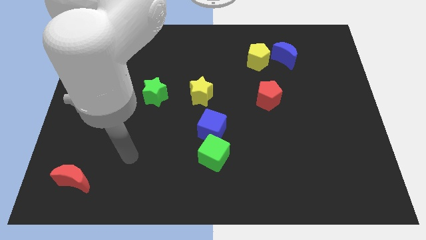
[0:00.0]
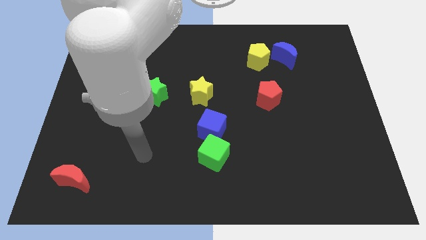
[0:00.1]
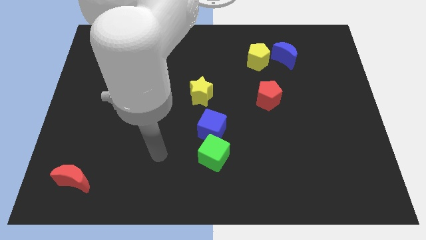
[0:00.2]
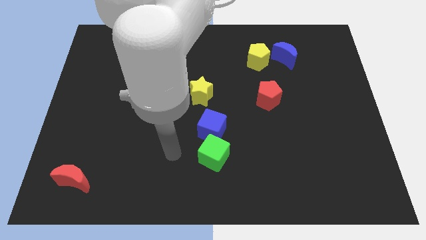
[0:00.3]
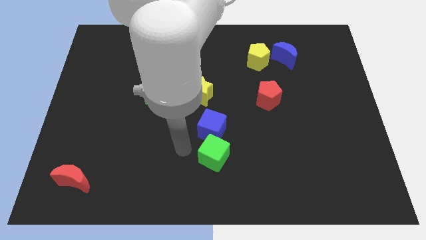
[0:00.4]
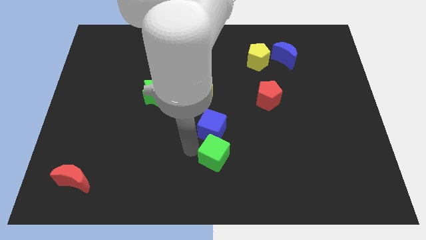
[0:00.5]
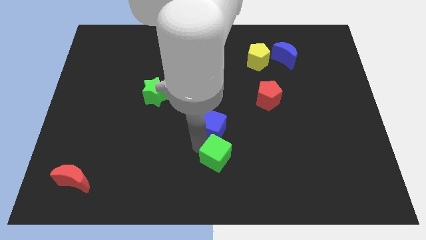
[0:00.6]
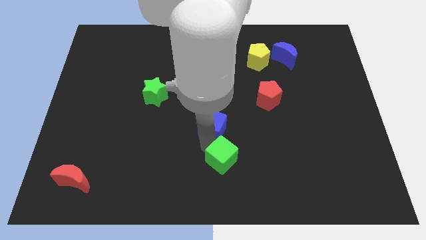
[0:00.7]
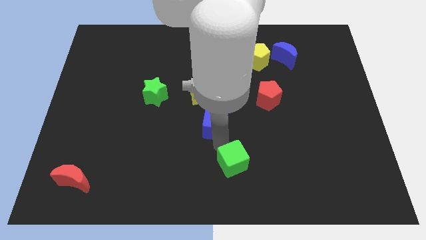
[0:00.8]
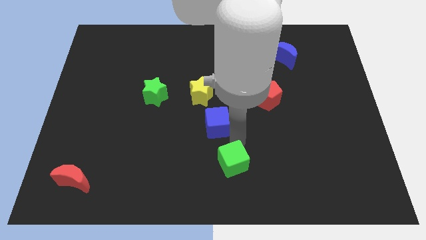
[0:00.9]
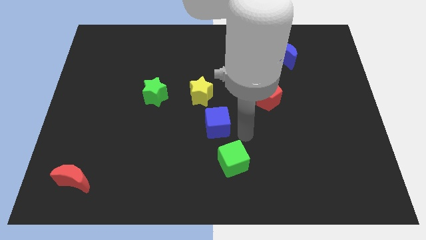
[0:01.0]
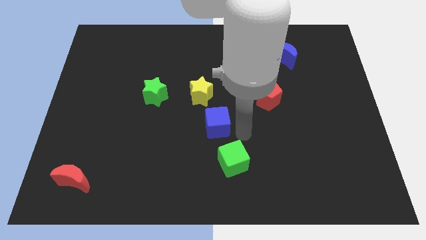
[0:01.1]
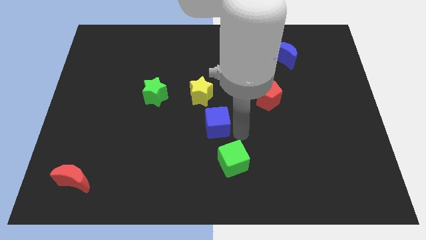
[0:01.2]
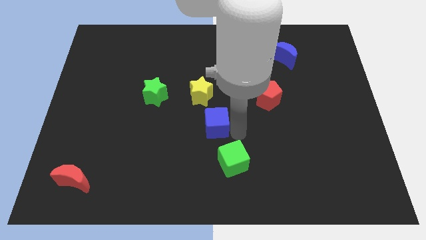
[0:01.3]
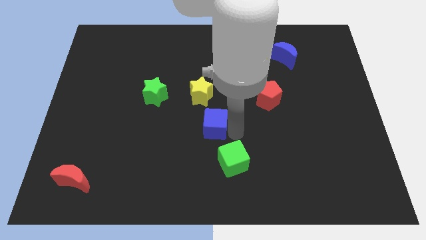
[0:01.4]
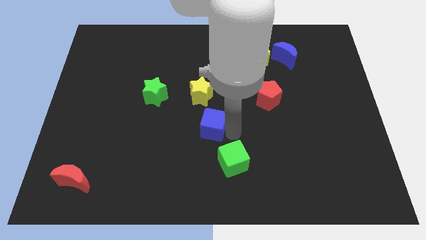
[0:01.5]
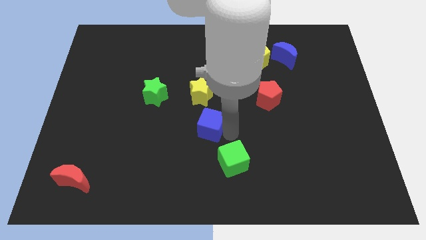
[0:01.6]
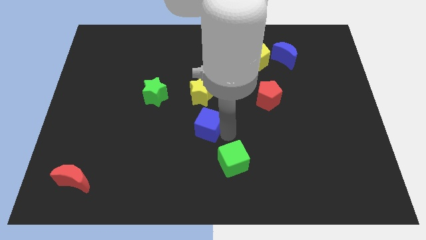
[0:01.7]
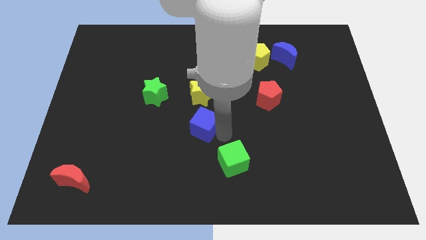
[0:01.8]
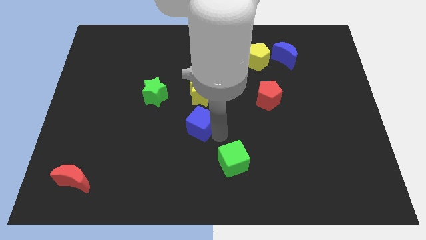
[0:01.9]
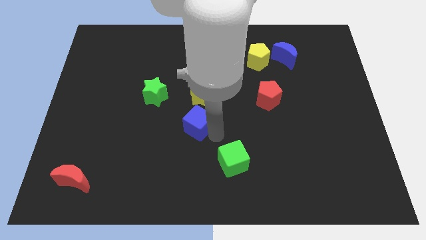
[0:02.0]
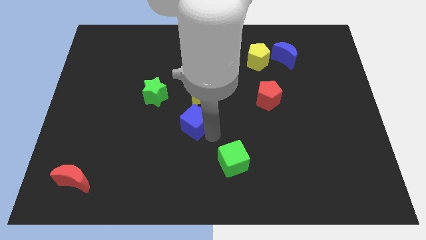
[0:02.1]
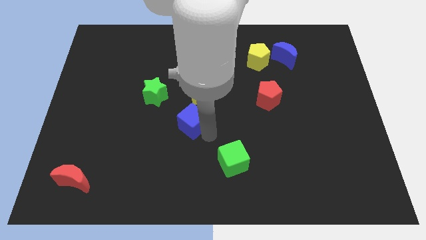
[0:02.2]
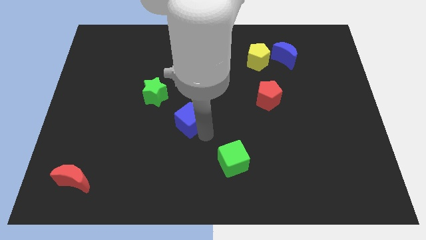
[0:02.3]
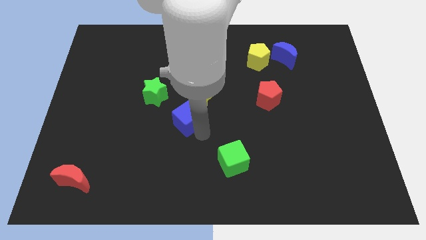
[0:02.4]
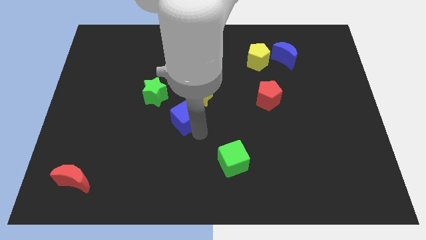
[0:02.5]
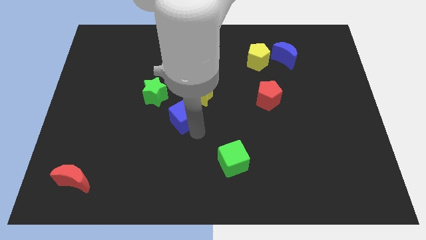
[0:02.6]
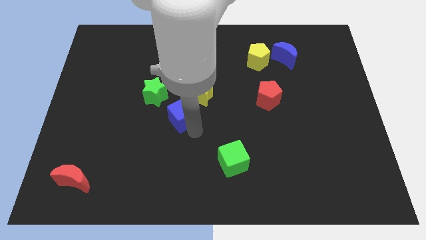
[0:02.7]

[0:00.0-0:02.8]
push the blue cube a little bit up and to the left diagonally

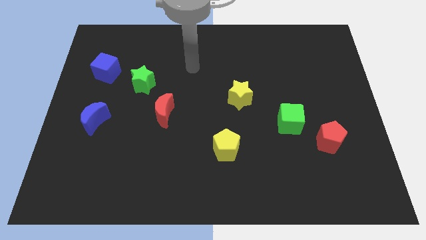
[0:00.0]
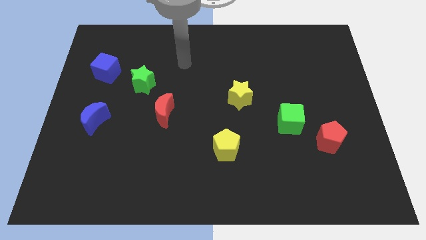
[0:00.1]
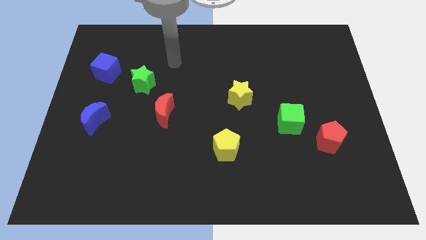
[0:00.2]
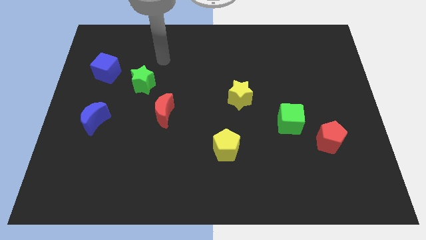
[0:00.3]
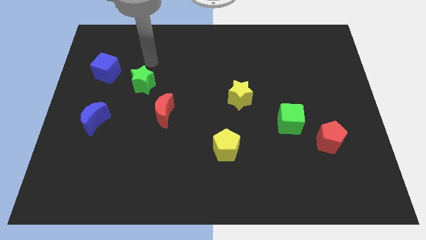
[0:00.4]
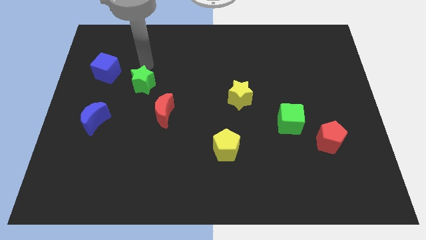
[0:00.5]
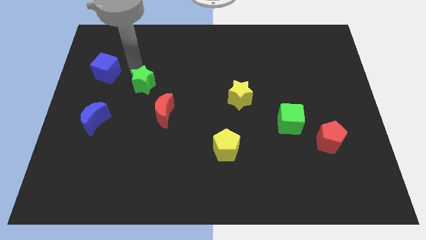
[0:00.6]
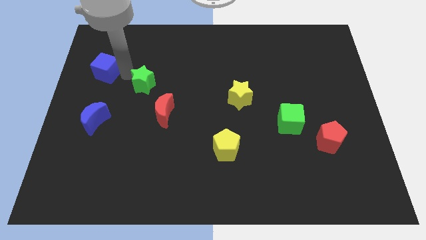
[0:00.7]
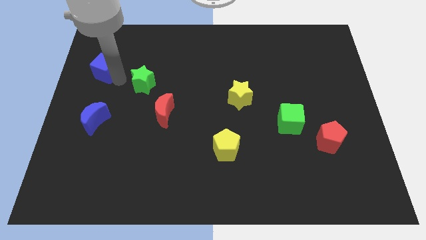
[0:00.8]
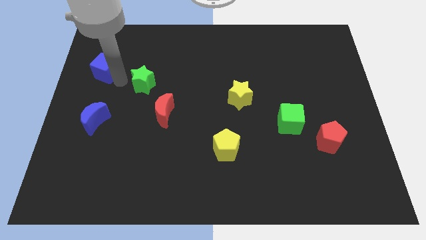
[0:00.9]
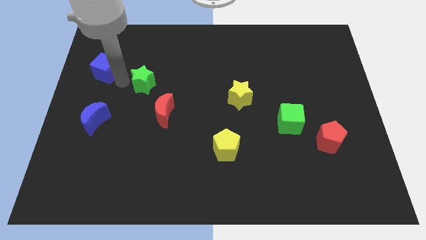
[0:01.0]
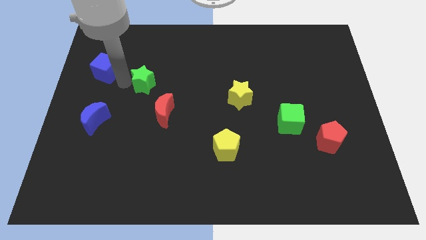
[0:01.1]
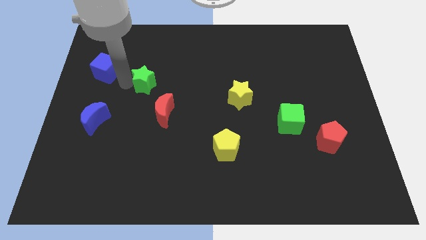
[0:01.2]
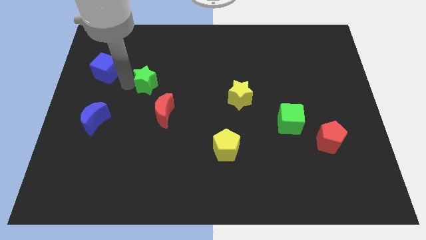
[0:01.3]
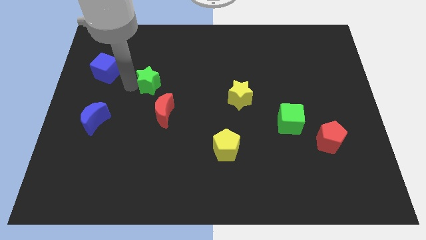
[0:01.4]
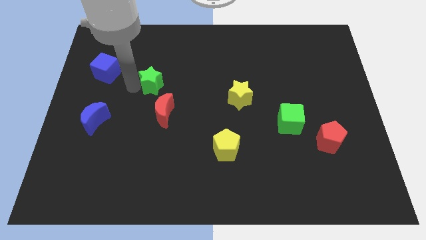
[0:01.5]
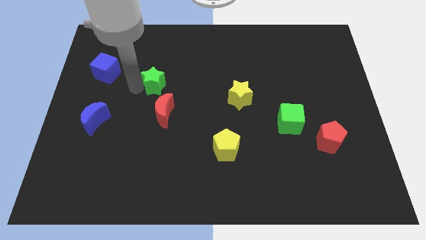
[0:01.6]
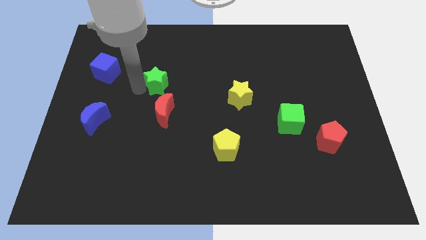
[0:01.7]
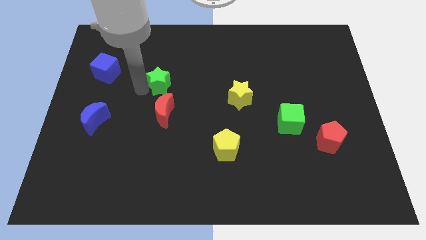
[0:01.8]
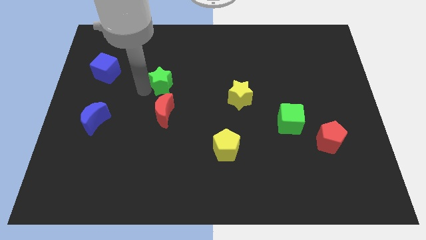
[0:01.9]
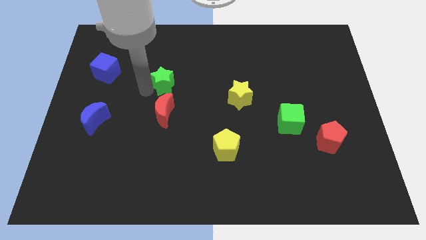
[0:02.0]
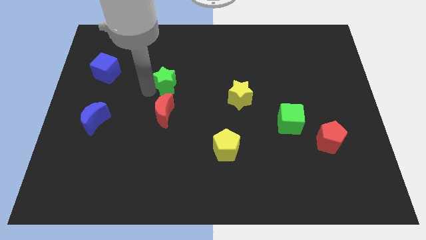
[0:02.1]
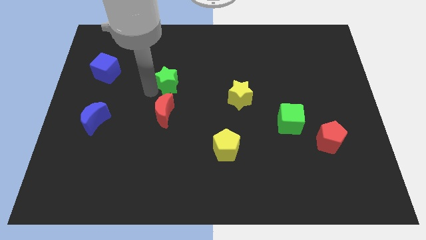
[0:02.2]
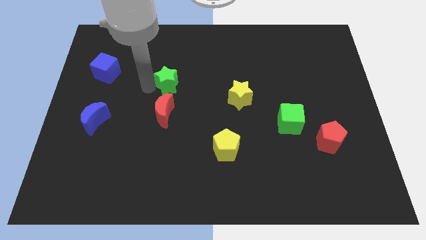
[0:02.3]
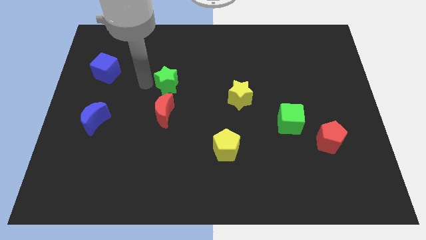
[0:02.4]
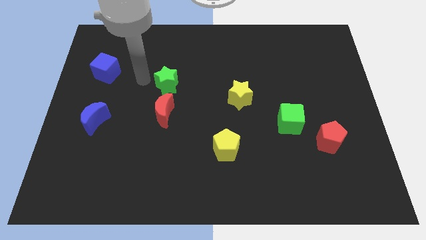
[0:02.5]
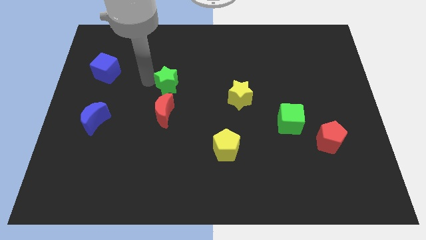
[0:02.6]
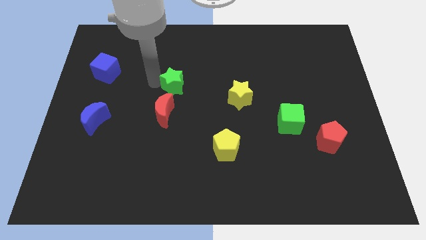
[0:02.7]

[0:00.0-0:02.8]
slightly move the green star right

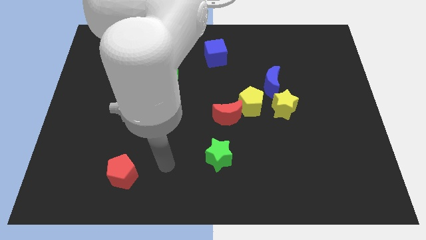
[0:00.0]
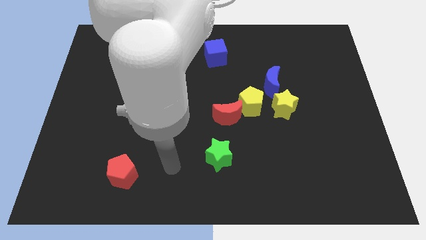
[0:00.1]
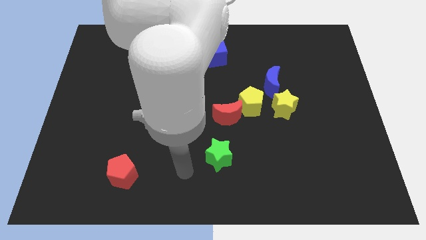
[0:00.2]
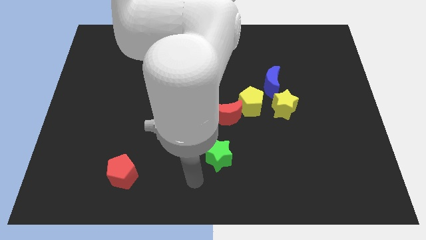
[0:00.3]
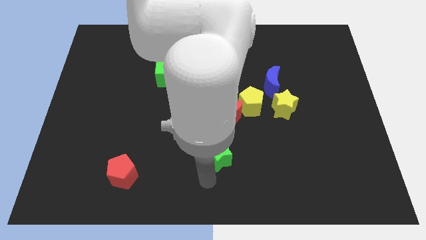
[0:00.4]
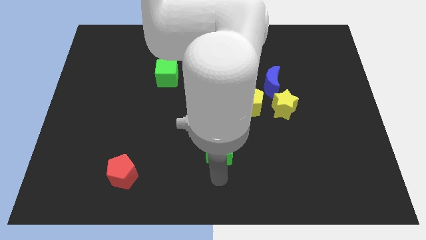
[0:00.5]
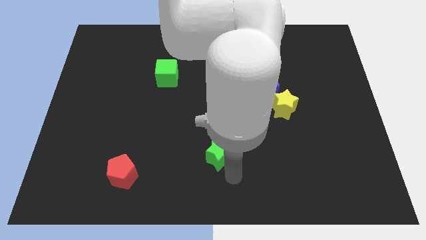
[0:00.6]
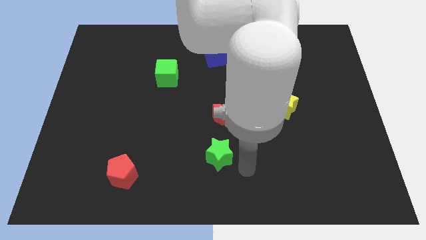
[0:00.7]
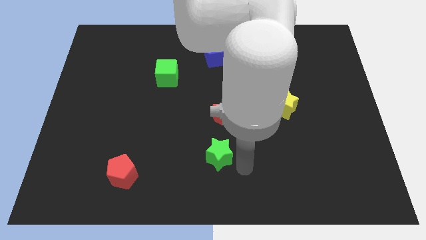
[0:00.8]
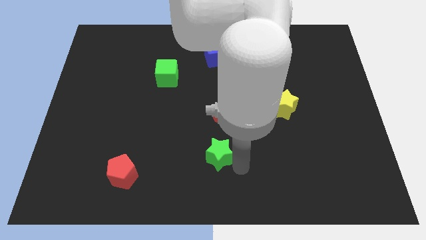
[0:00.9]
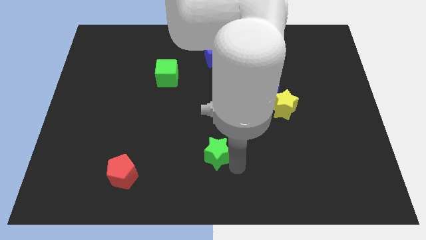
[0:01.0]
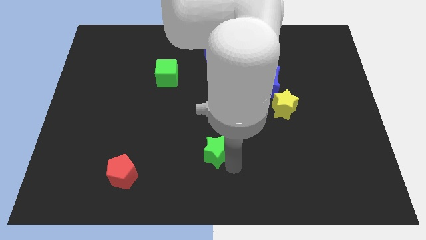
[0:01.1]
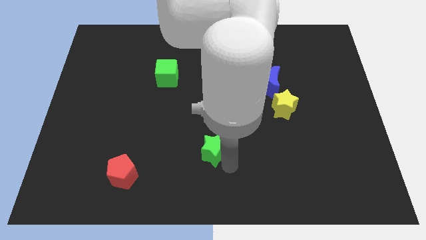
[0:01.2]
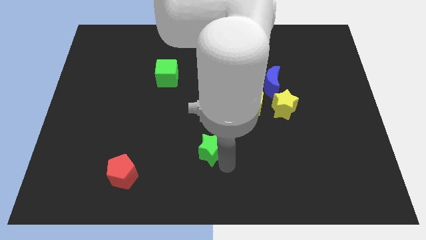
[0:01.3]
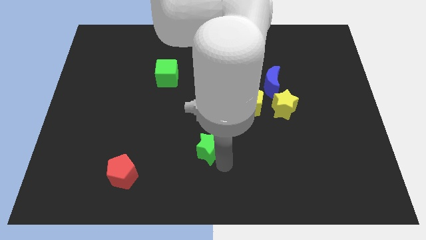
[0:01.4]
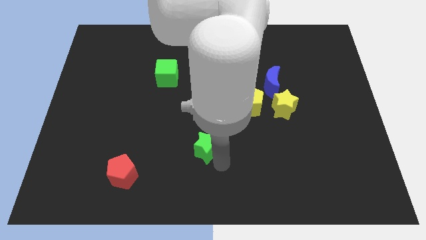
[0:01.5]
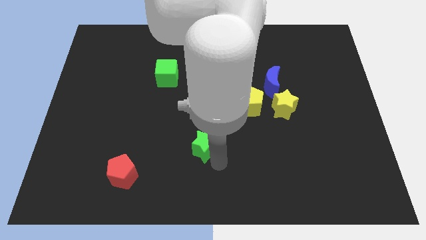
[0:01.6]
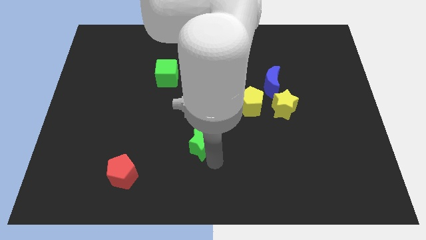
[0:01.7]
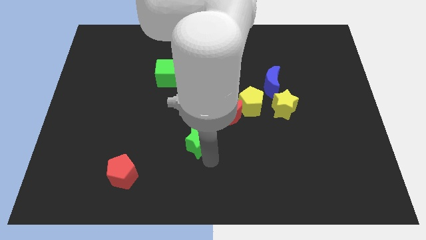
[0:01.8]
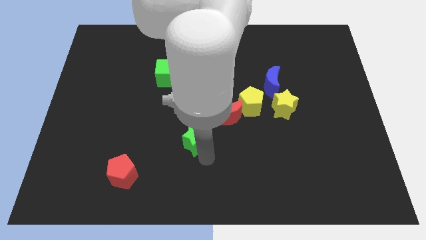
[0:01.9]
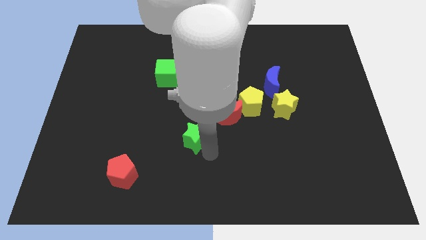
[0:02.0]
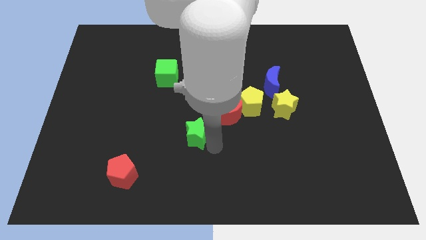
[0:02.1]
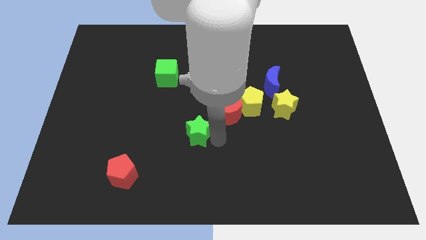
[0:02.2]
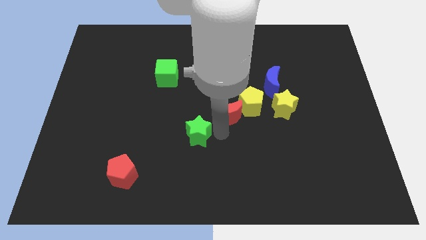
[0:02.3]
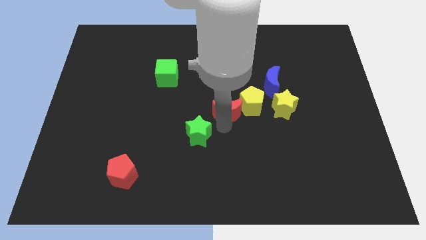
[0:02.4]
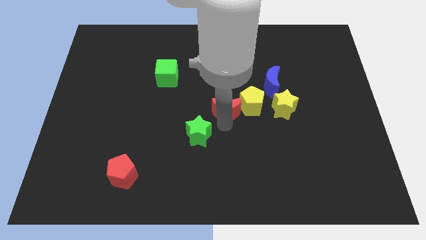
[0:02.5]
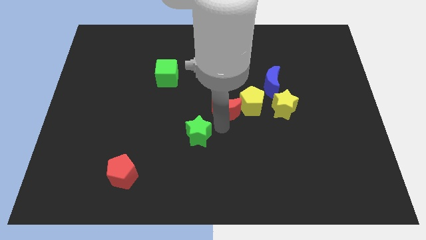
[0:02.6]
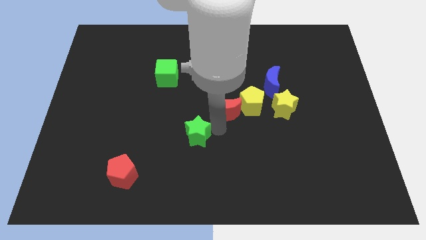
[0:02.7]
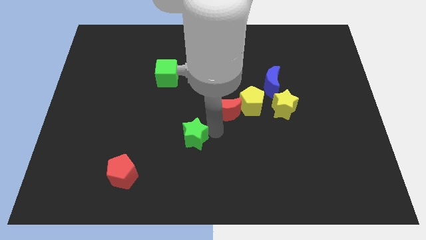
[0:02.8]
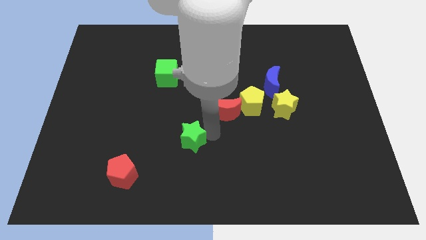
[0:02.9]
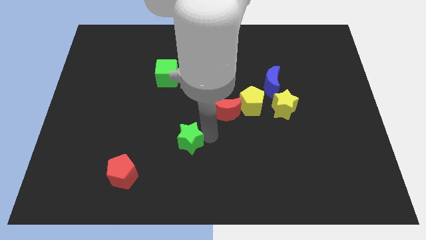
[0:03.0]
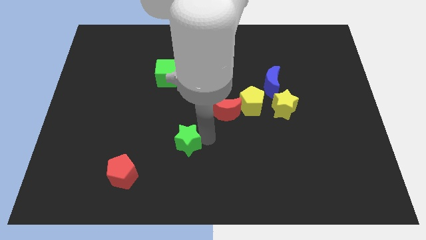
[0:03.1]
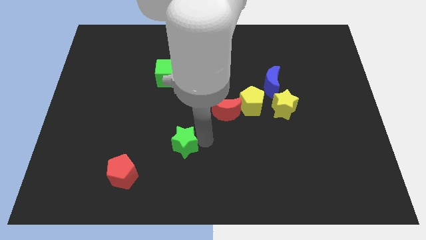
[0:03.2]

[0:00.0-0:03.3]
slightly move the green star to the left
